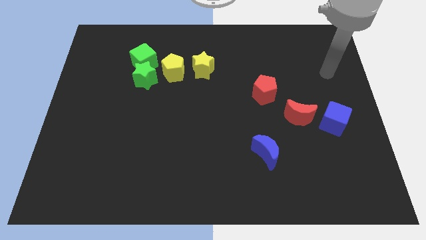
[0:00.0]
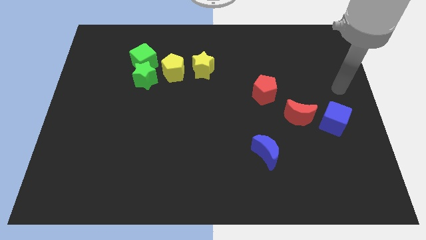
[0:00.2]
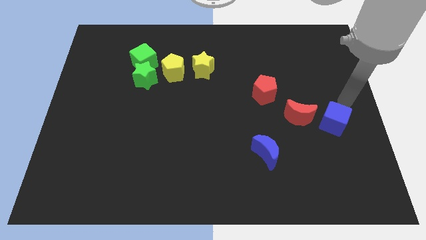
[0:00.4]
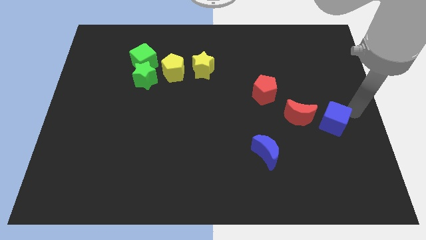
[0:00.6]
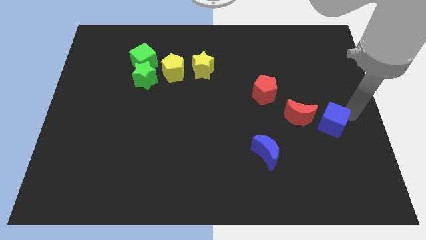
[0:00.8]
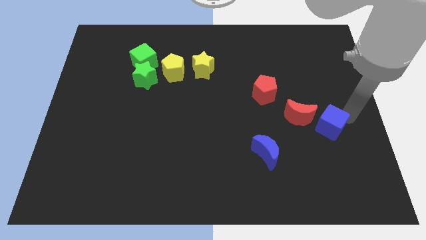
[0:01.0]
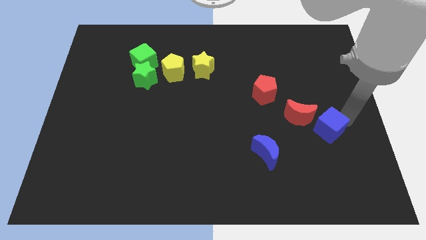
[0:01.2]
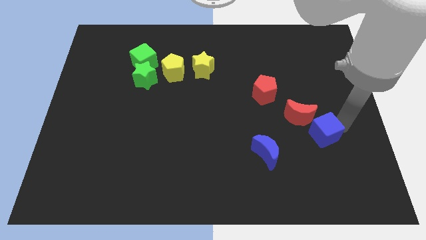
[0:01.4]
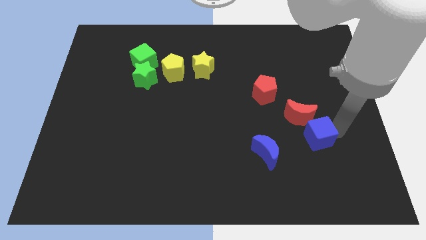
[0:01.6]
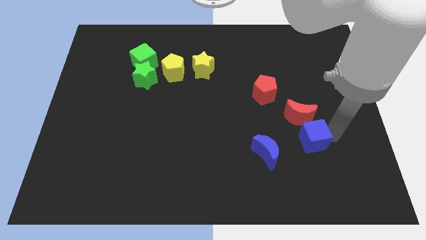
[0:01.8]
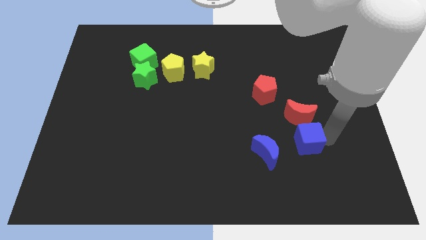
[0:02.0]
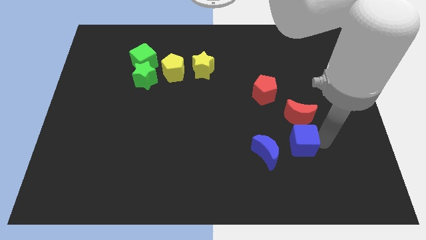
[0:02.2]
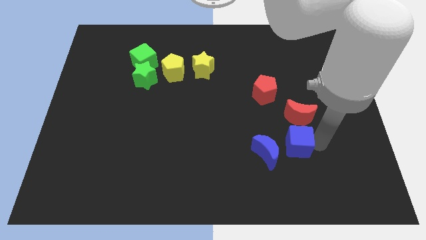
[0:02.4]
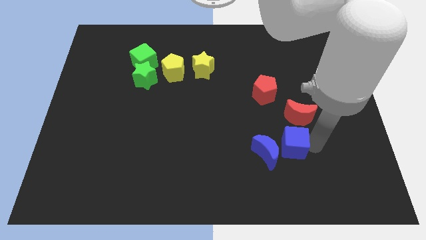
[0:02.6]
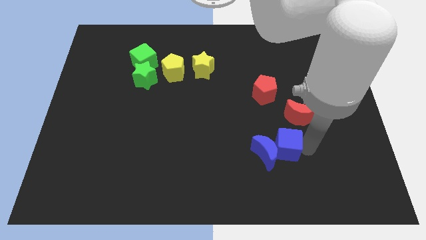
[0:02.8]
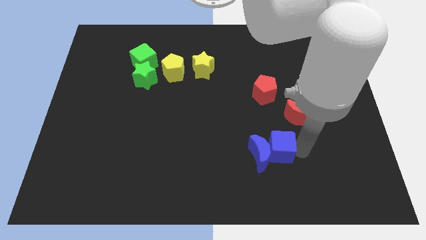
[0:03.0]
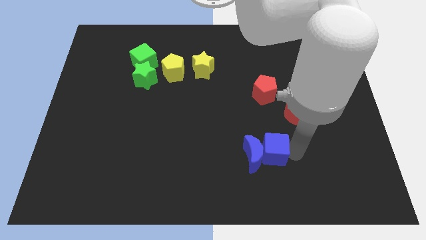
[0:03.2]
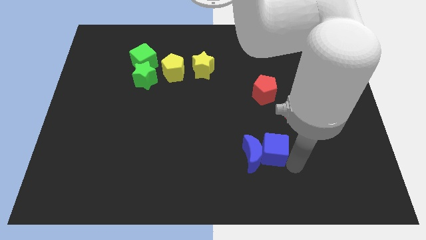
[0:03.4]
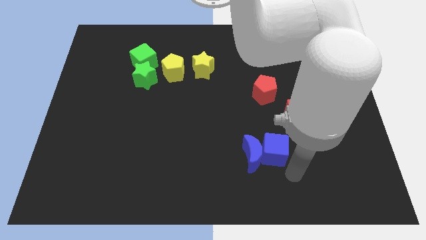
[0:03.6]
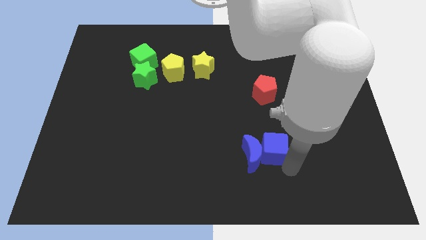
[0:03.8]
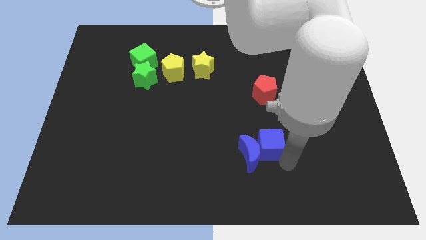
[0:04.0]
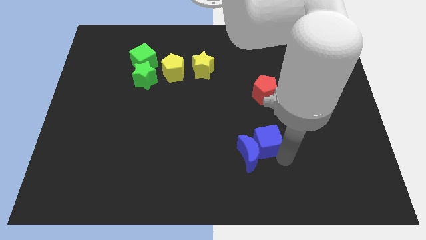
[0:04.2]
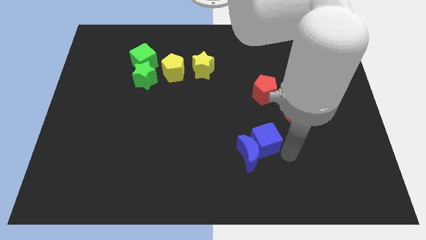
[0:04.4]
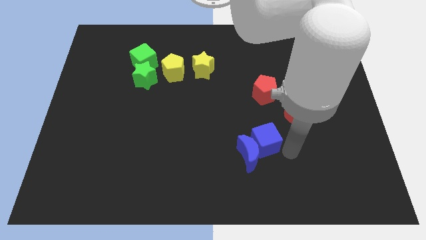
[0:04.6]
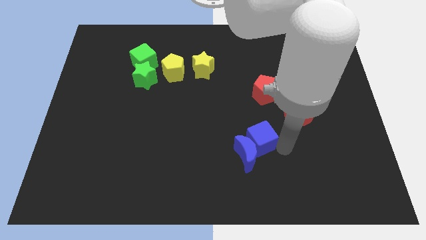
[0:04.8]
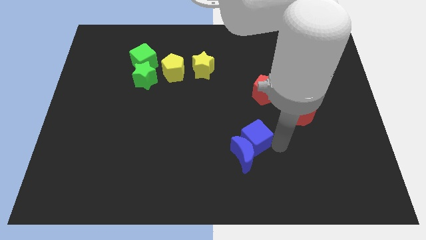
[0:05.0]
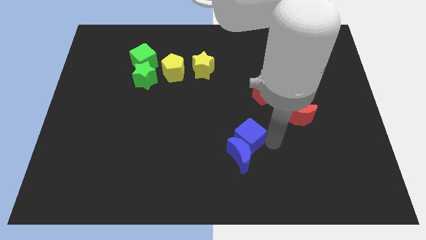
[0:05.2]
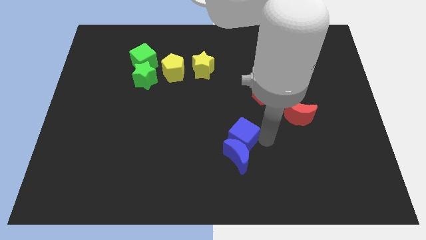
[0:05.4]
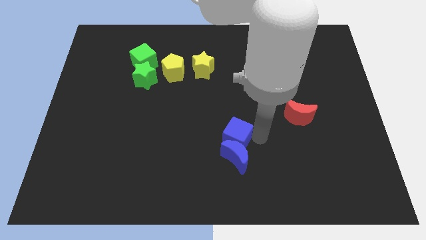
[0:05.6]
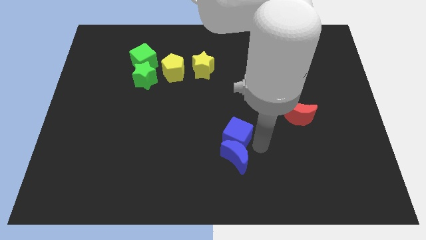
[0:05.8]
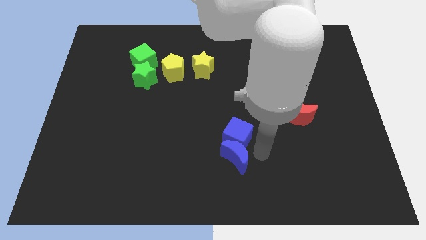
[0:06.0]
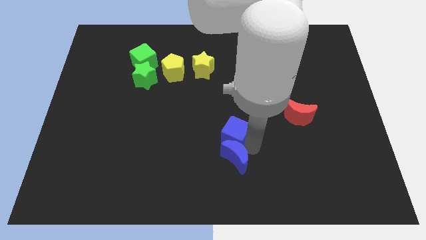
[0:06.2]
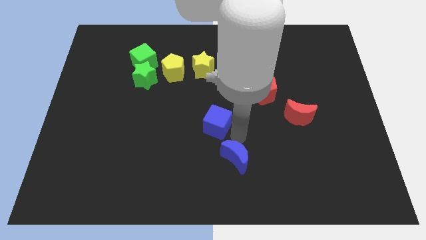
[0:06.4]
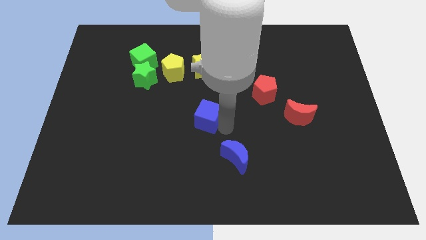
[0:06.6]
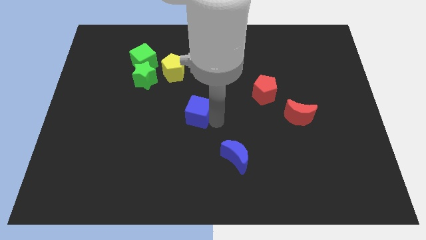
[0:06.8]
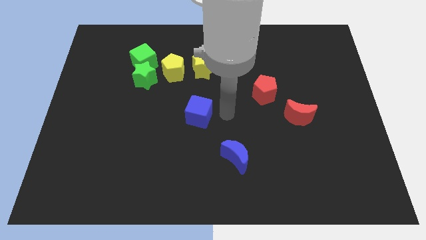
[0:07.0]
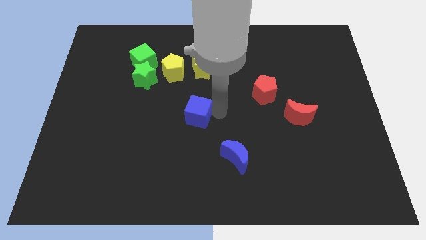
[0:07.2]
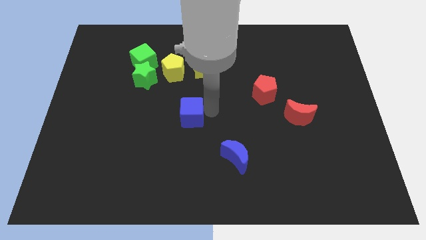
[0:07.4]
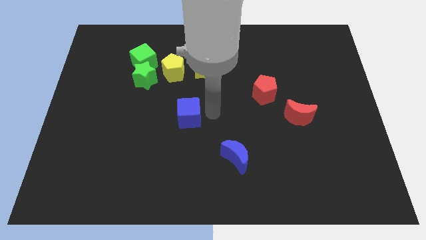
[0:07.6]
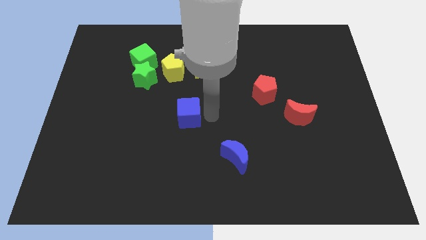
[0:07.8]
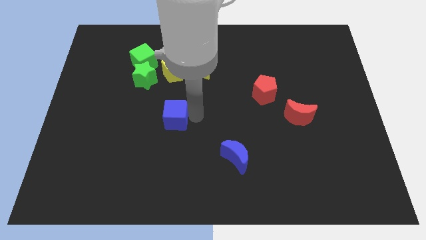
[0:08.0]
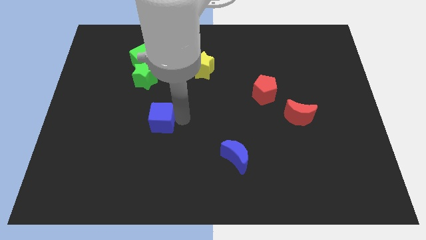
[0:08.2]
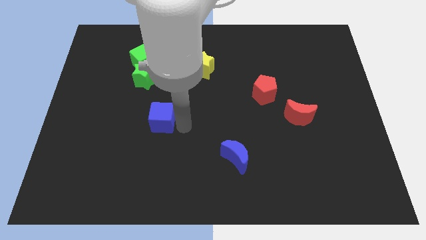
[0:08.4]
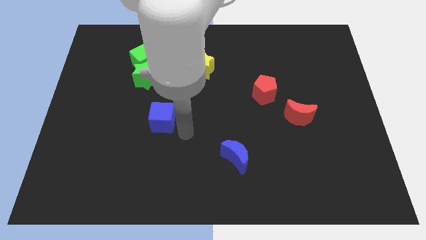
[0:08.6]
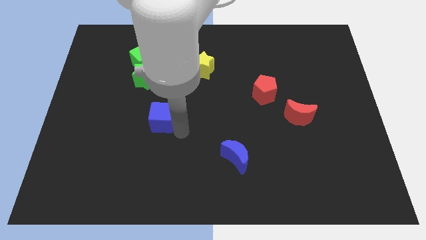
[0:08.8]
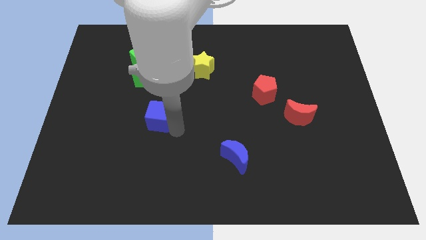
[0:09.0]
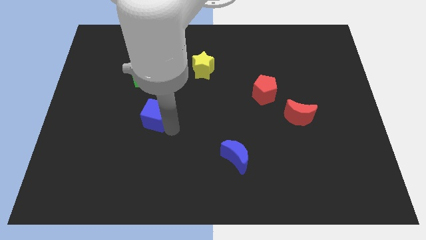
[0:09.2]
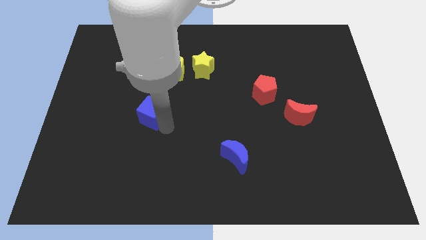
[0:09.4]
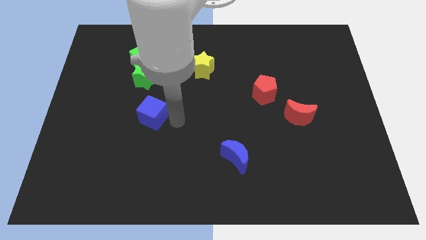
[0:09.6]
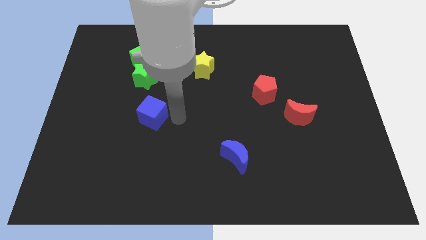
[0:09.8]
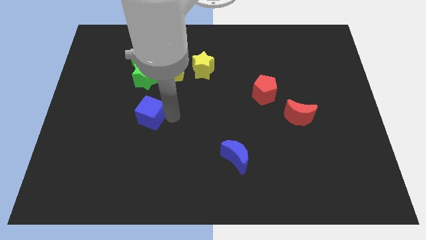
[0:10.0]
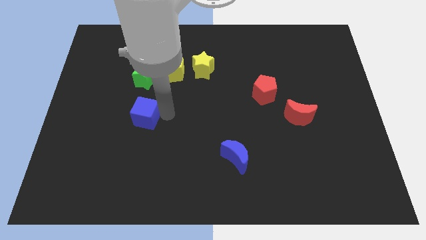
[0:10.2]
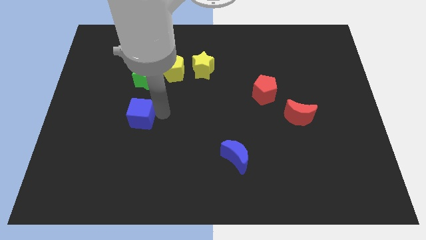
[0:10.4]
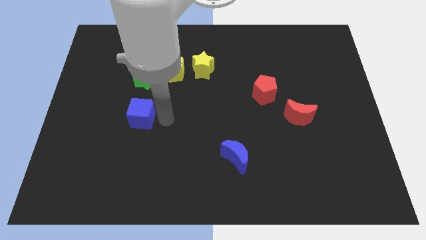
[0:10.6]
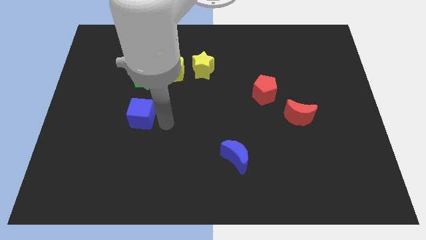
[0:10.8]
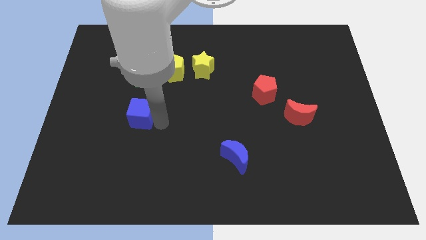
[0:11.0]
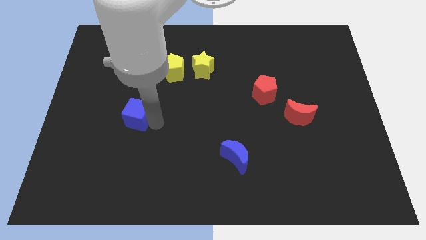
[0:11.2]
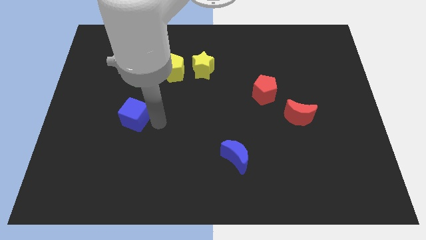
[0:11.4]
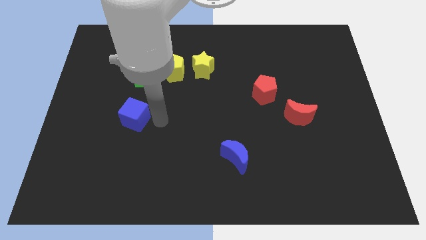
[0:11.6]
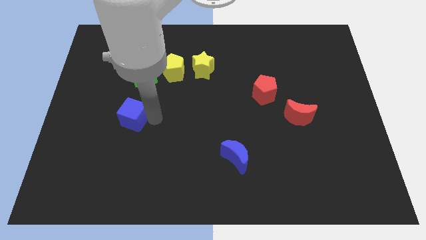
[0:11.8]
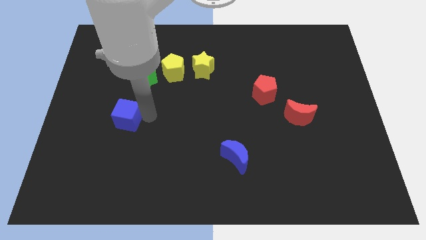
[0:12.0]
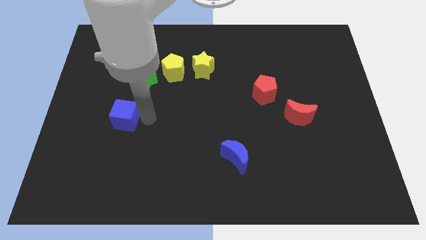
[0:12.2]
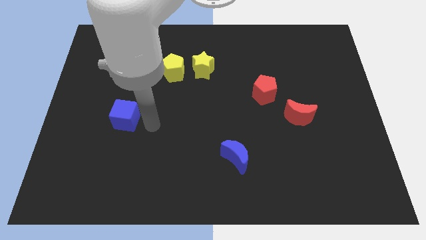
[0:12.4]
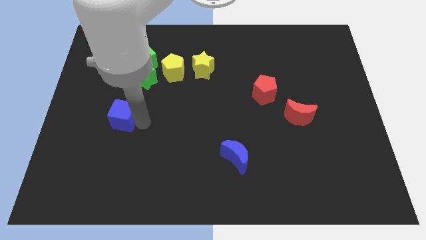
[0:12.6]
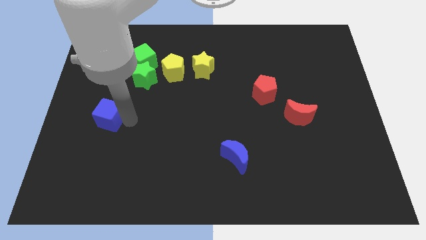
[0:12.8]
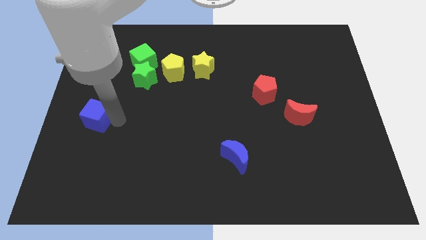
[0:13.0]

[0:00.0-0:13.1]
move the blue cube to the center left

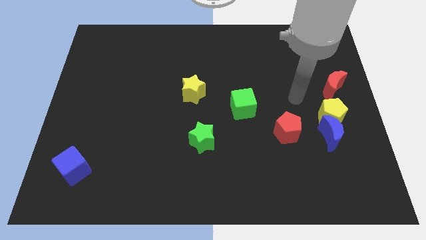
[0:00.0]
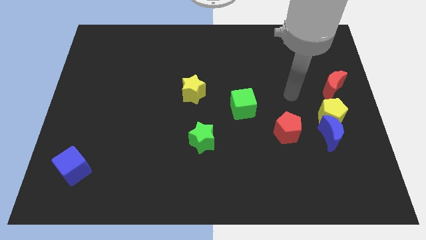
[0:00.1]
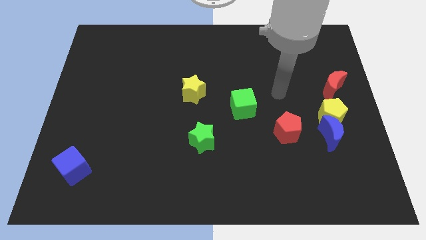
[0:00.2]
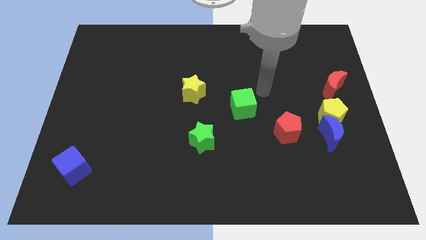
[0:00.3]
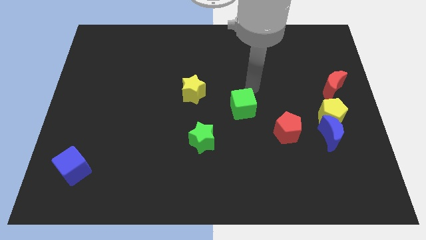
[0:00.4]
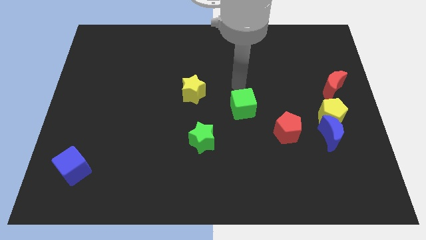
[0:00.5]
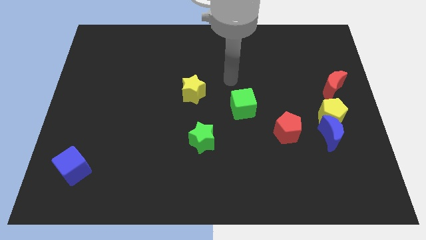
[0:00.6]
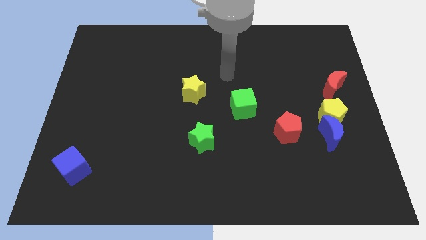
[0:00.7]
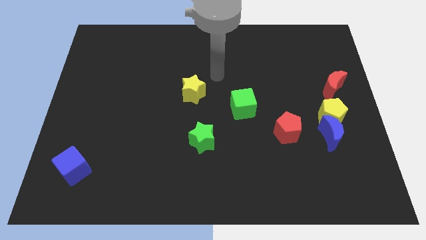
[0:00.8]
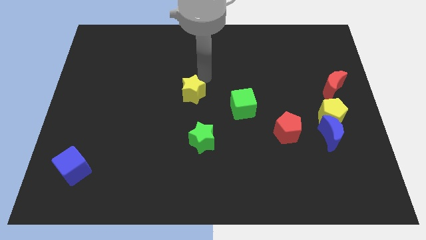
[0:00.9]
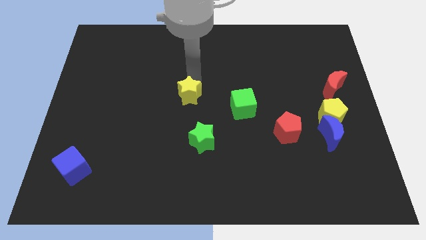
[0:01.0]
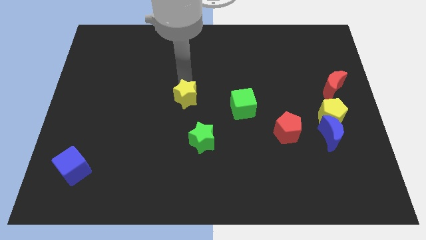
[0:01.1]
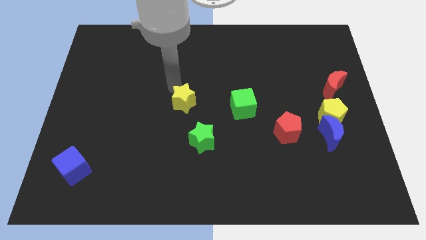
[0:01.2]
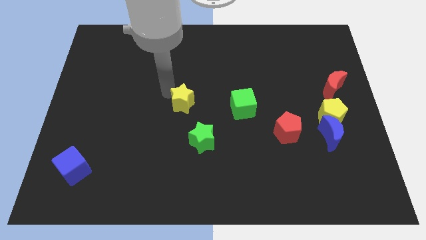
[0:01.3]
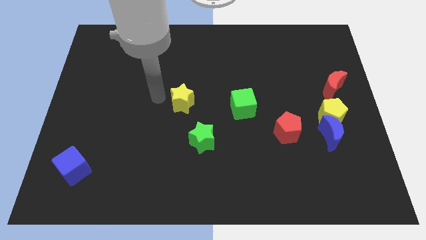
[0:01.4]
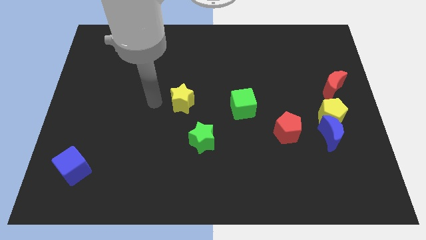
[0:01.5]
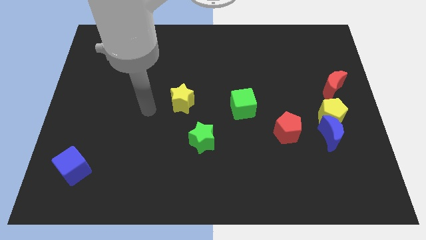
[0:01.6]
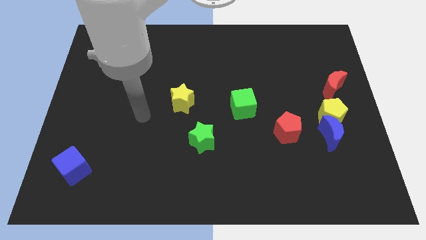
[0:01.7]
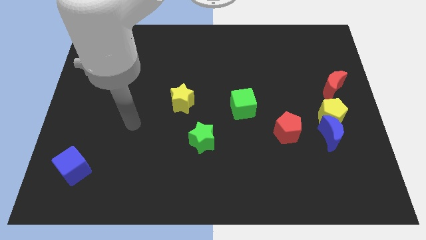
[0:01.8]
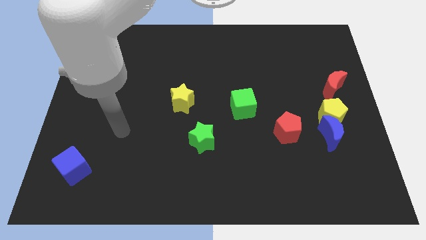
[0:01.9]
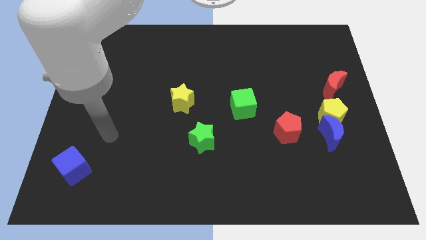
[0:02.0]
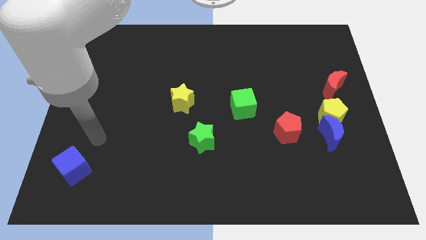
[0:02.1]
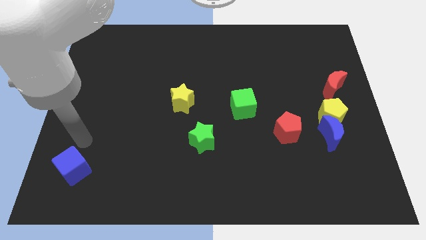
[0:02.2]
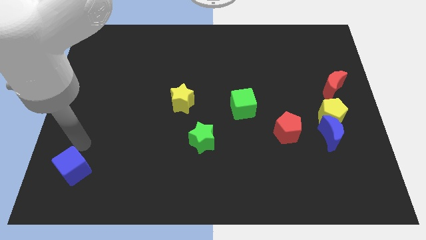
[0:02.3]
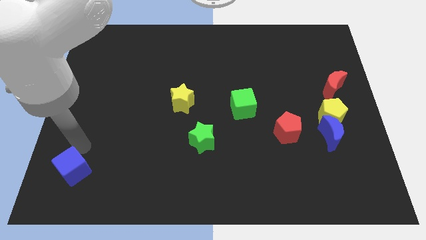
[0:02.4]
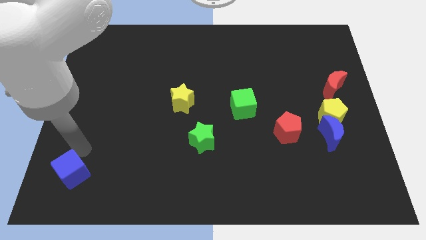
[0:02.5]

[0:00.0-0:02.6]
push the blue cube to the lower left corner
